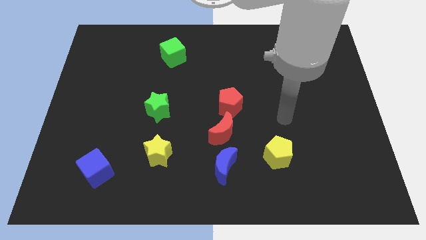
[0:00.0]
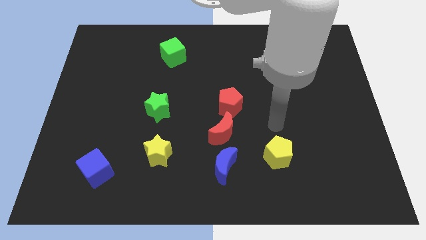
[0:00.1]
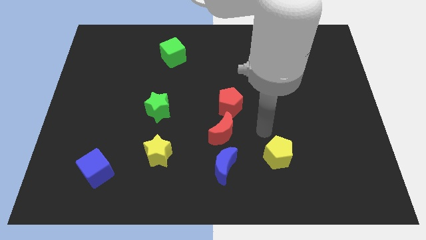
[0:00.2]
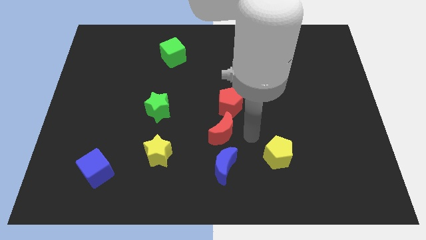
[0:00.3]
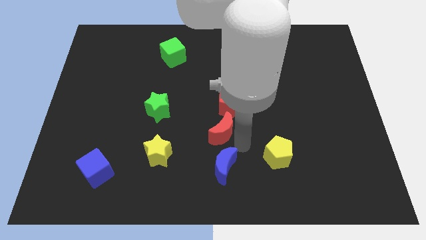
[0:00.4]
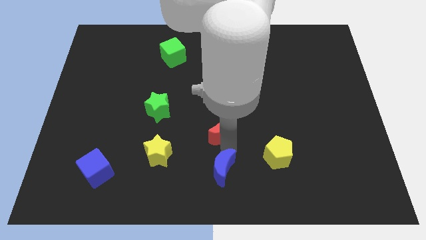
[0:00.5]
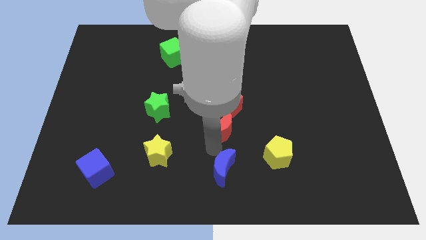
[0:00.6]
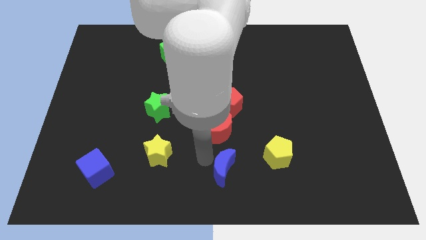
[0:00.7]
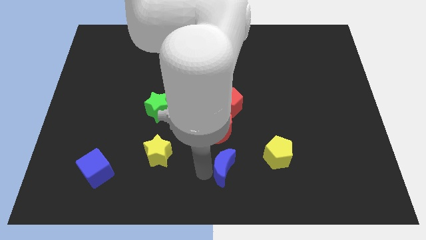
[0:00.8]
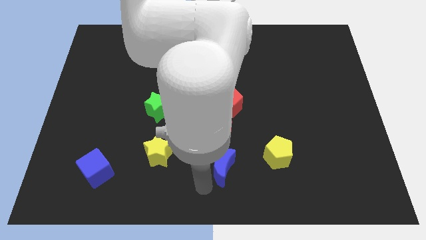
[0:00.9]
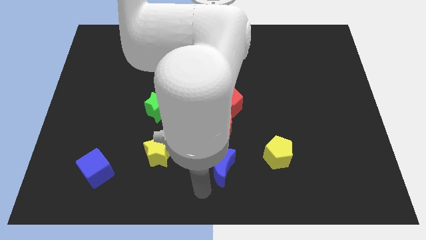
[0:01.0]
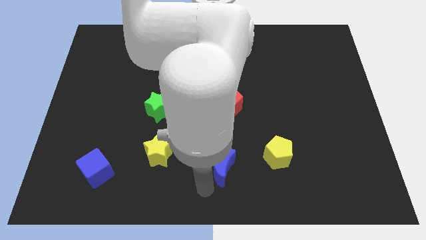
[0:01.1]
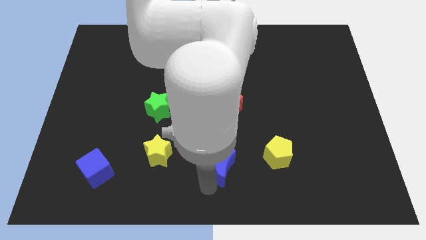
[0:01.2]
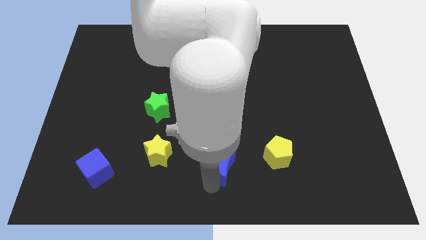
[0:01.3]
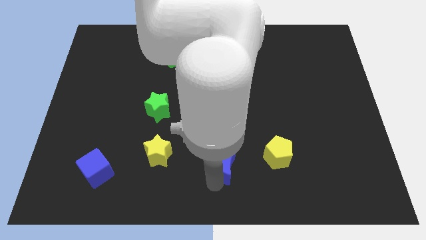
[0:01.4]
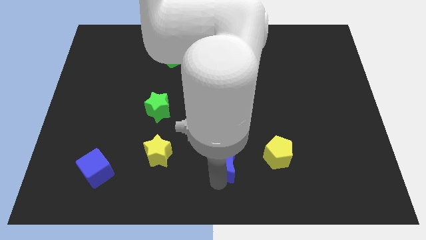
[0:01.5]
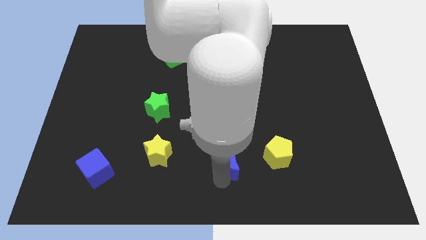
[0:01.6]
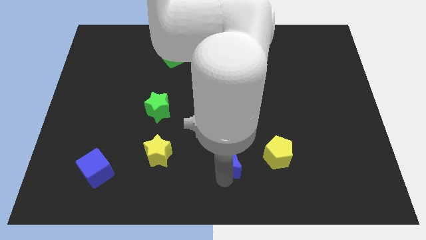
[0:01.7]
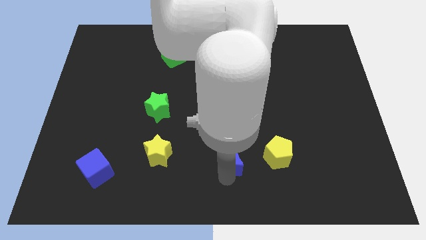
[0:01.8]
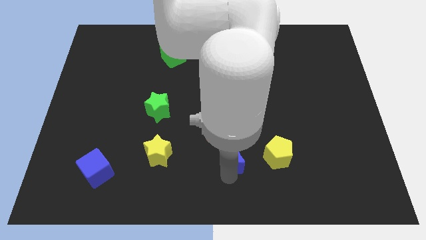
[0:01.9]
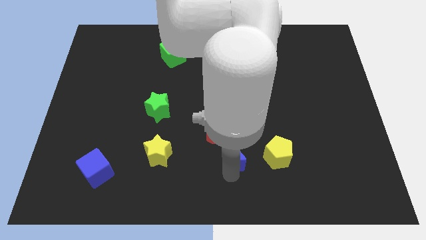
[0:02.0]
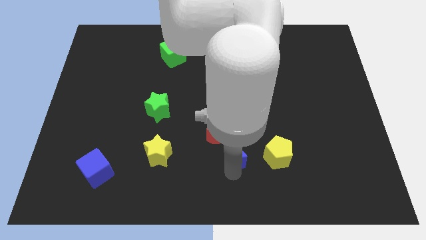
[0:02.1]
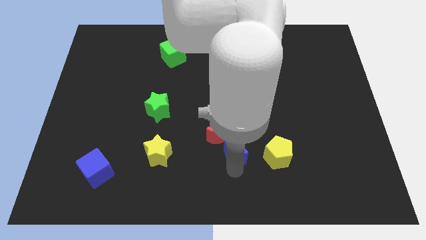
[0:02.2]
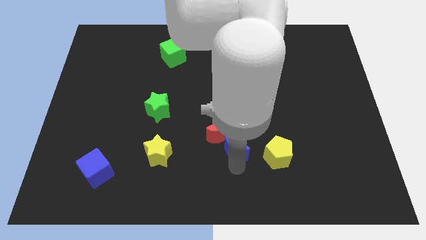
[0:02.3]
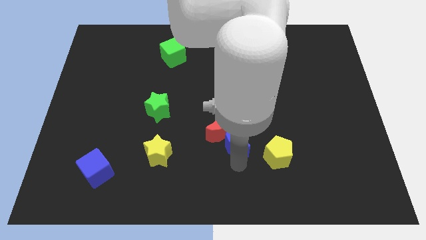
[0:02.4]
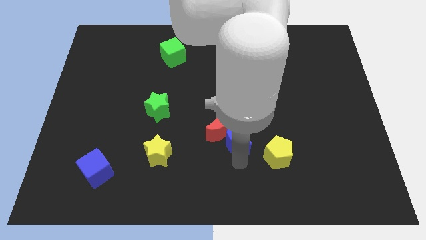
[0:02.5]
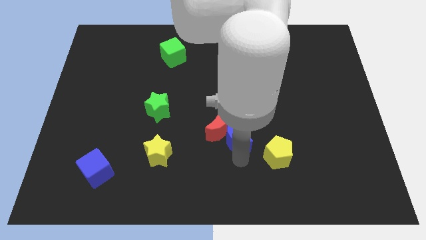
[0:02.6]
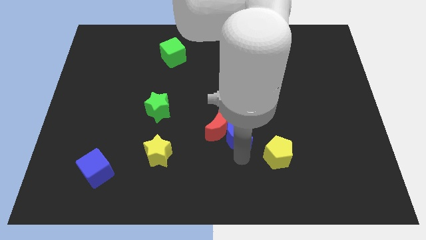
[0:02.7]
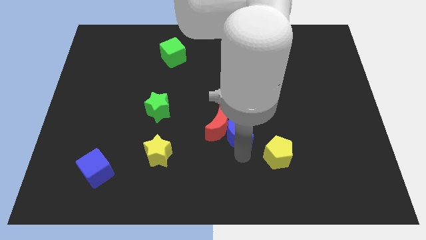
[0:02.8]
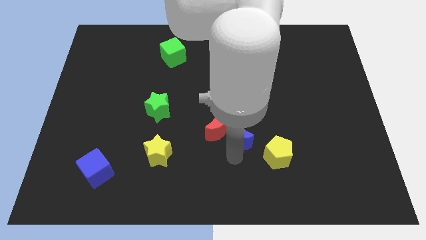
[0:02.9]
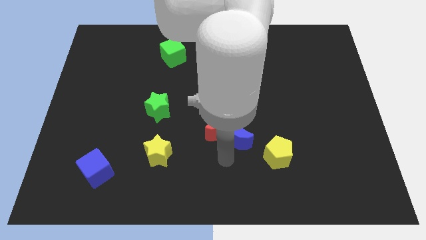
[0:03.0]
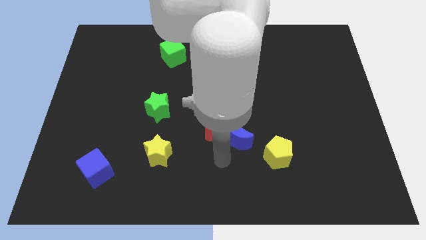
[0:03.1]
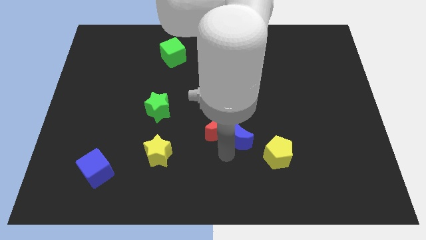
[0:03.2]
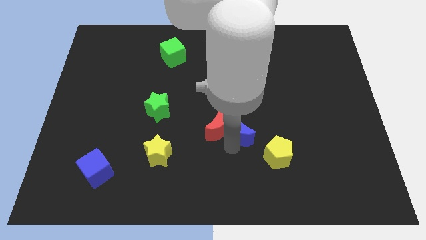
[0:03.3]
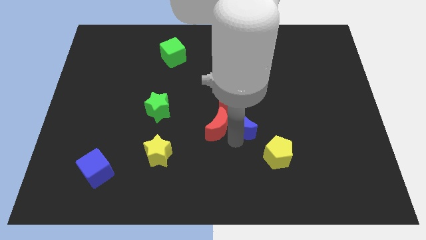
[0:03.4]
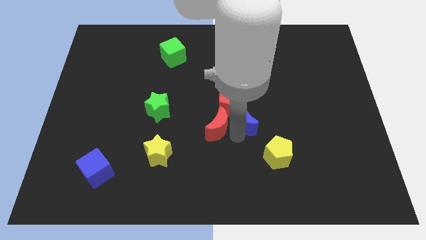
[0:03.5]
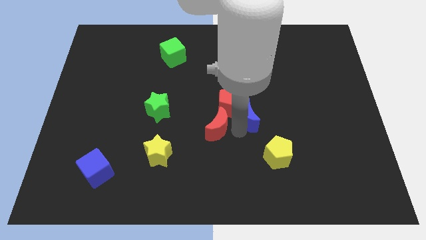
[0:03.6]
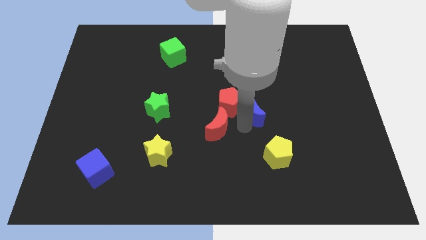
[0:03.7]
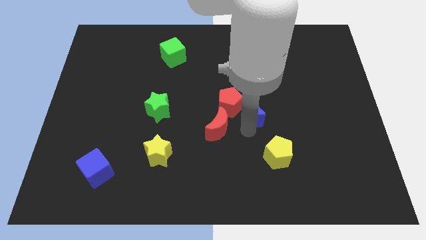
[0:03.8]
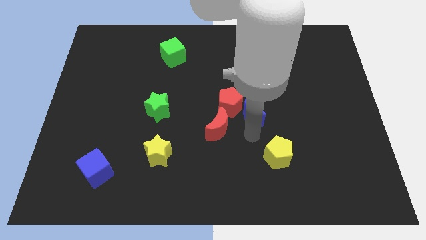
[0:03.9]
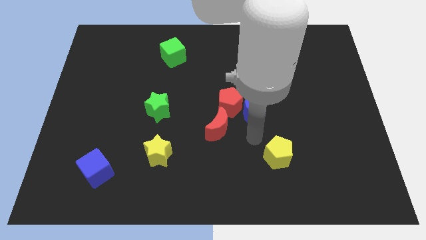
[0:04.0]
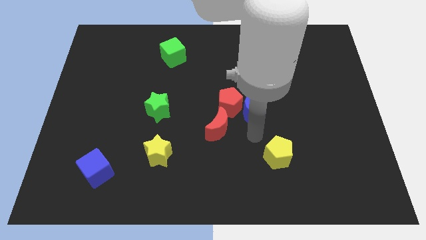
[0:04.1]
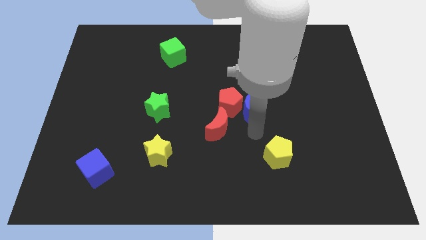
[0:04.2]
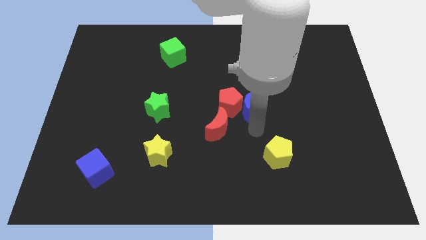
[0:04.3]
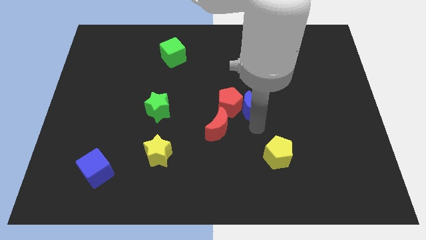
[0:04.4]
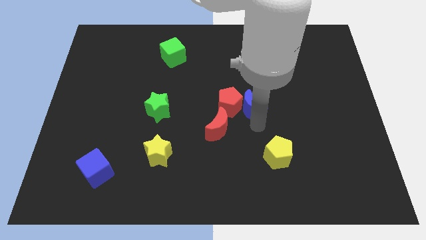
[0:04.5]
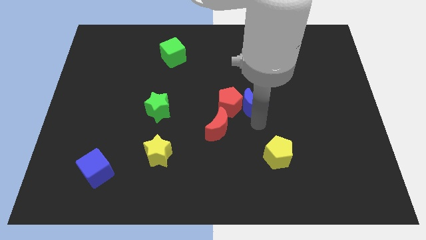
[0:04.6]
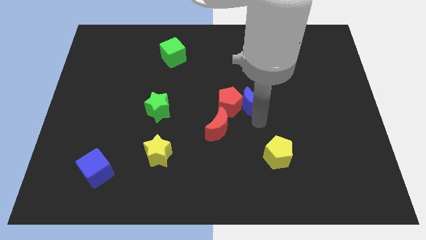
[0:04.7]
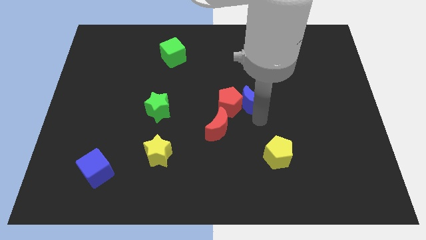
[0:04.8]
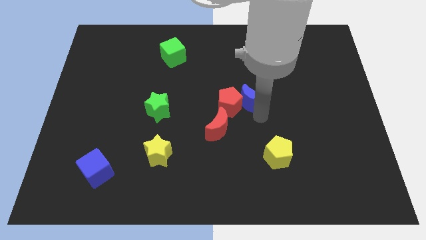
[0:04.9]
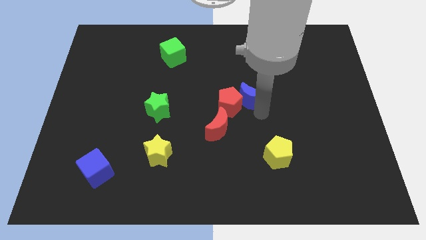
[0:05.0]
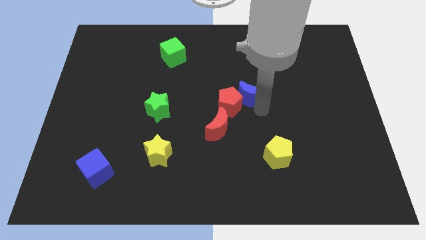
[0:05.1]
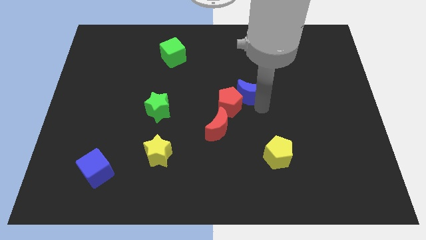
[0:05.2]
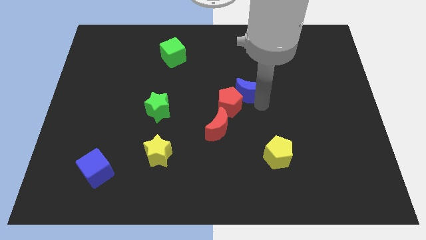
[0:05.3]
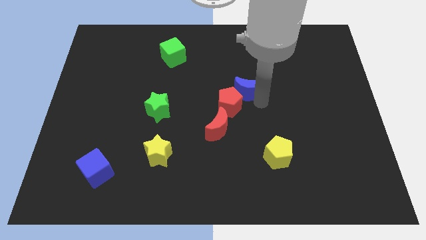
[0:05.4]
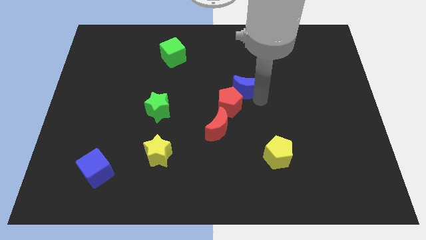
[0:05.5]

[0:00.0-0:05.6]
move the blue moon upwards

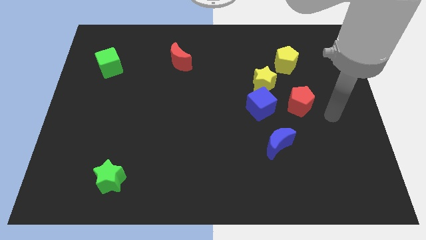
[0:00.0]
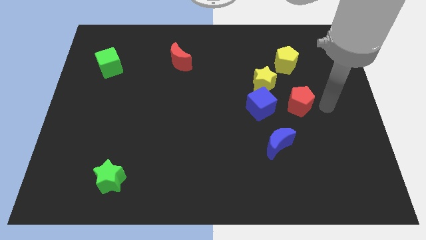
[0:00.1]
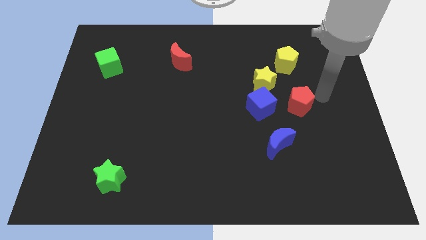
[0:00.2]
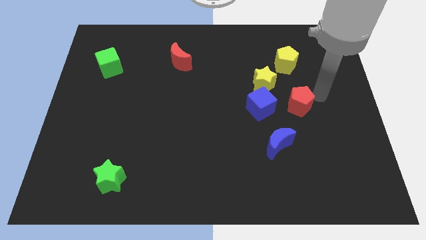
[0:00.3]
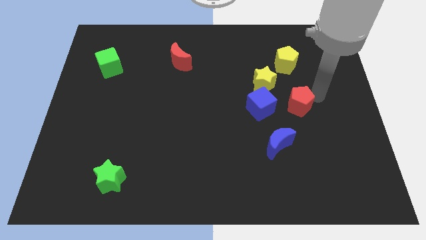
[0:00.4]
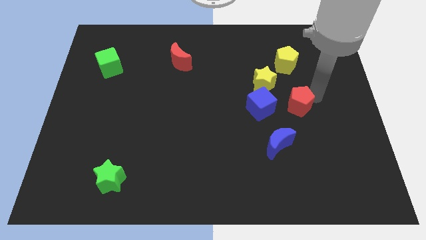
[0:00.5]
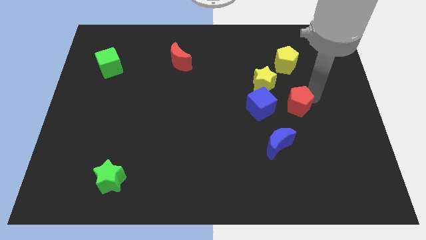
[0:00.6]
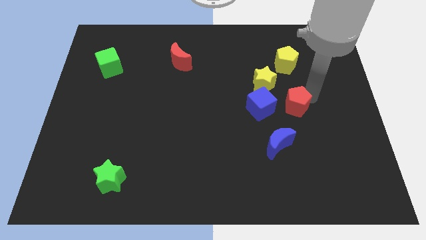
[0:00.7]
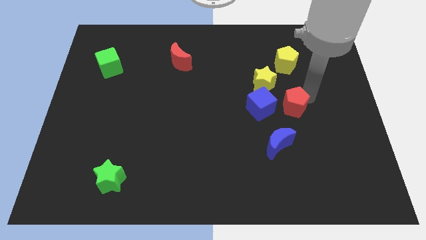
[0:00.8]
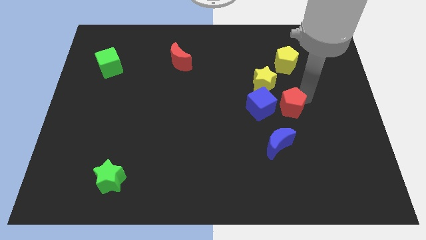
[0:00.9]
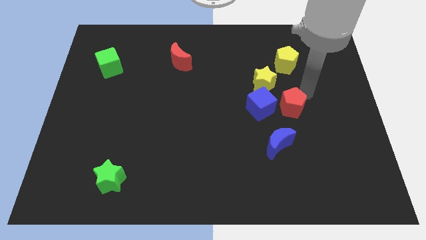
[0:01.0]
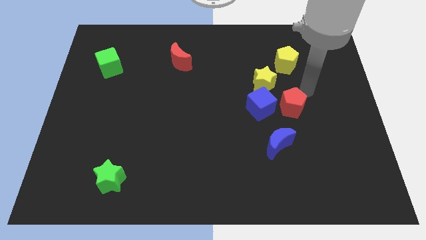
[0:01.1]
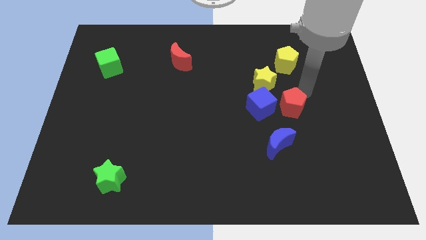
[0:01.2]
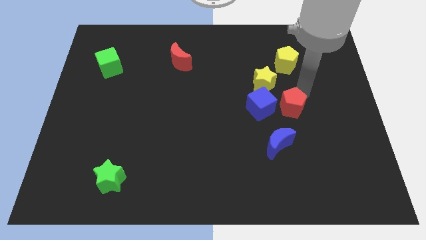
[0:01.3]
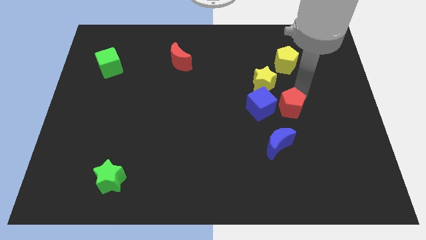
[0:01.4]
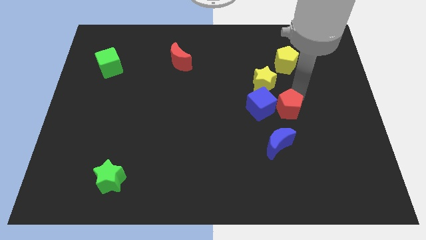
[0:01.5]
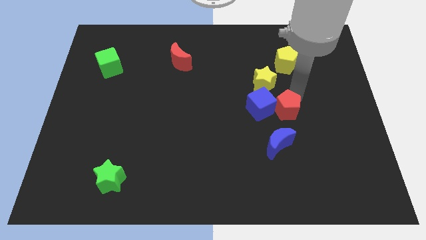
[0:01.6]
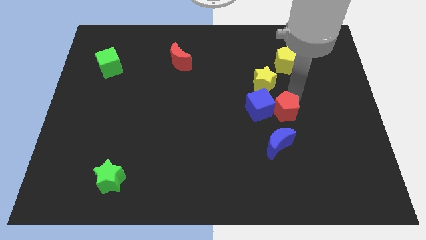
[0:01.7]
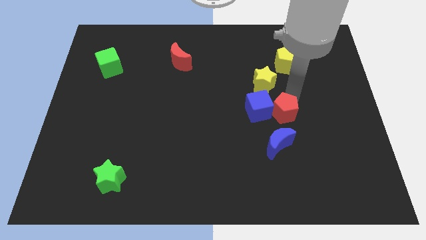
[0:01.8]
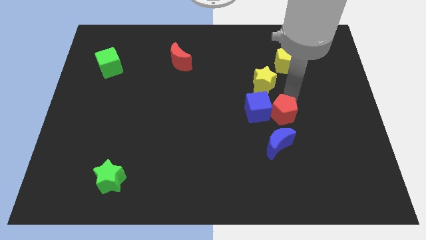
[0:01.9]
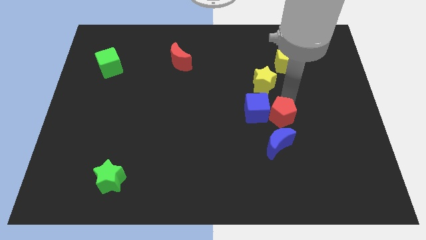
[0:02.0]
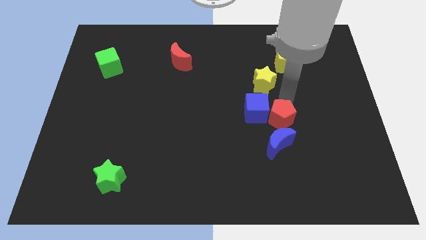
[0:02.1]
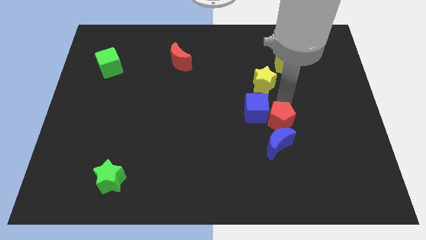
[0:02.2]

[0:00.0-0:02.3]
slide the red pentagon downwards and to the left diagonally a bit
